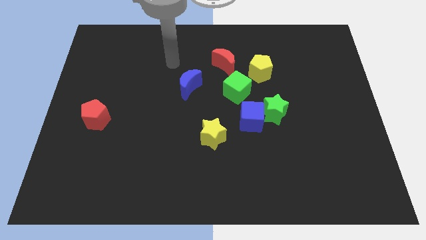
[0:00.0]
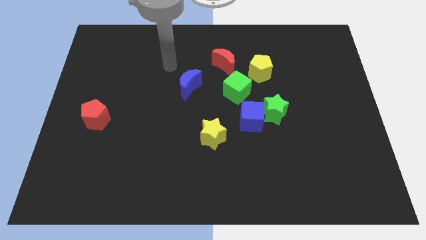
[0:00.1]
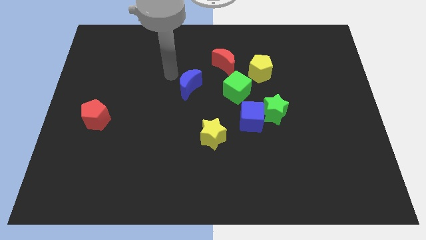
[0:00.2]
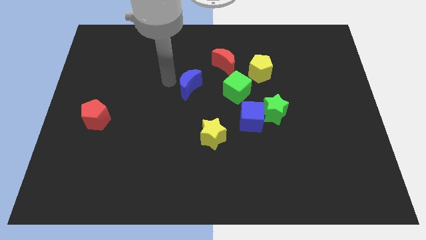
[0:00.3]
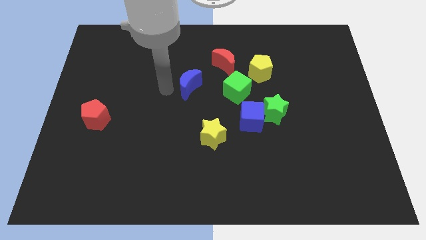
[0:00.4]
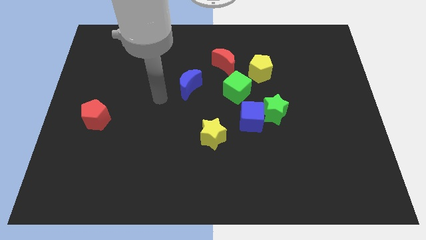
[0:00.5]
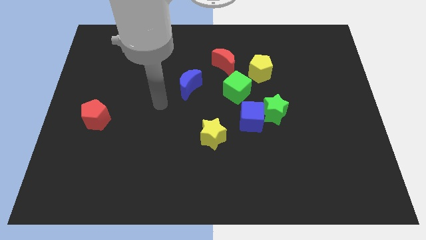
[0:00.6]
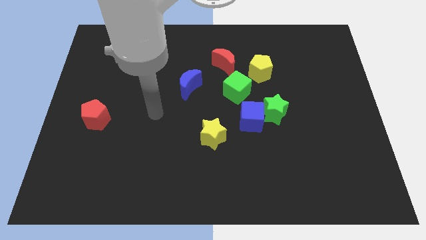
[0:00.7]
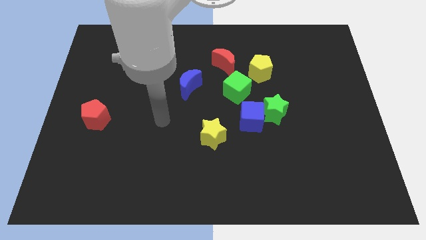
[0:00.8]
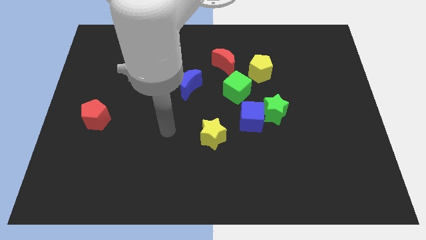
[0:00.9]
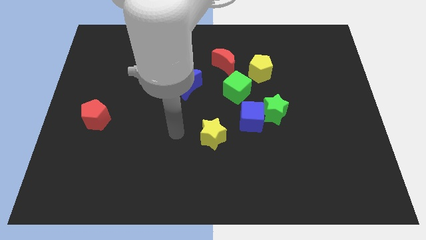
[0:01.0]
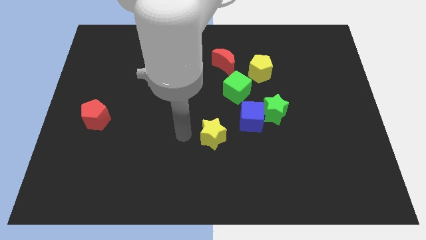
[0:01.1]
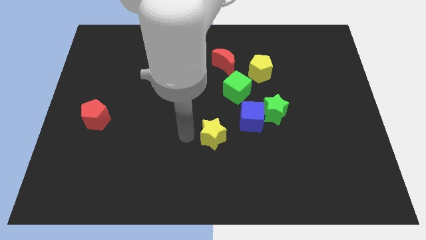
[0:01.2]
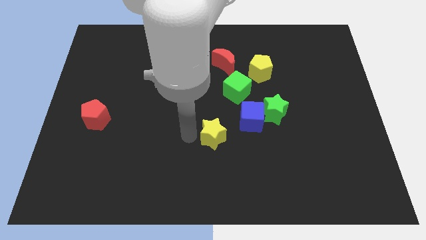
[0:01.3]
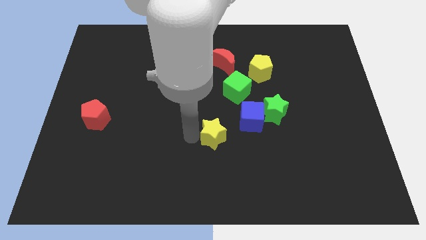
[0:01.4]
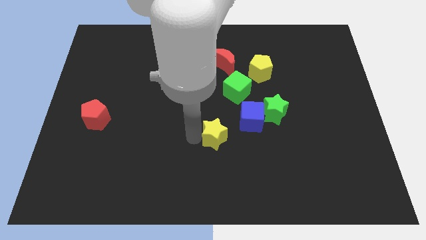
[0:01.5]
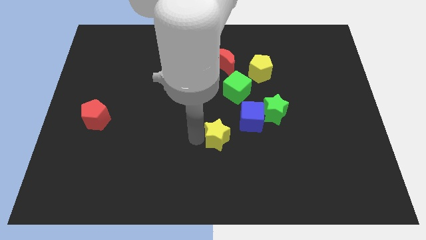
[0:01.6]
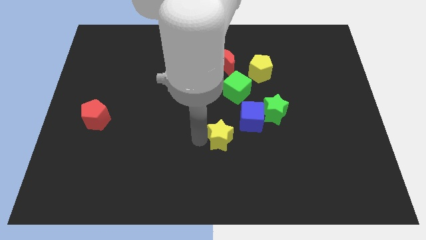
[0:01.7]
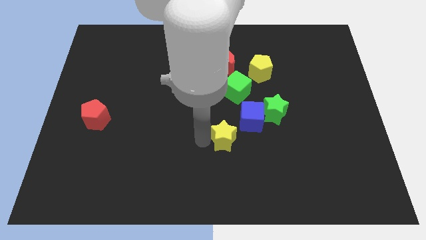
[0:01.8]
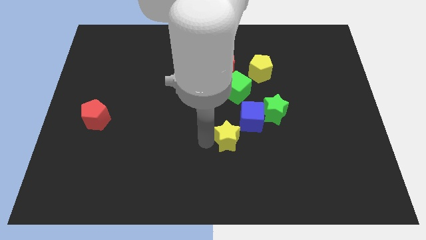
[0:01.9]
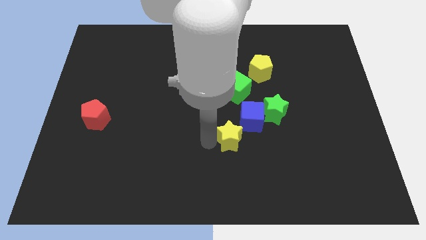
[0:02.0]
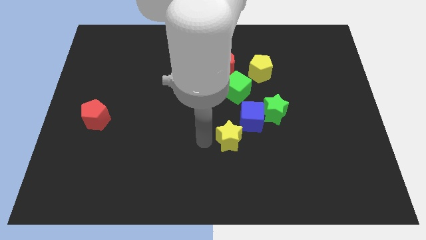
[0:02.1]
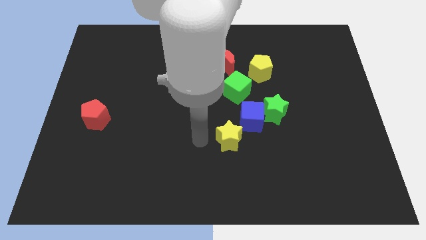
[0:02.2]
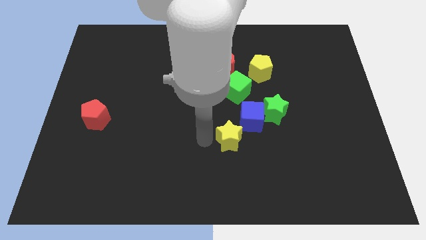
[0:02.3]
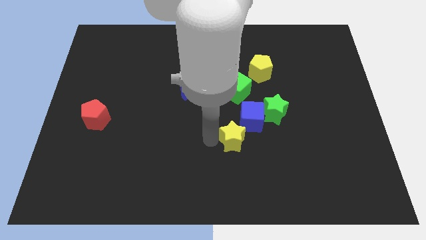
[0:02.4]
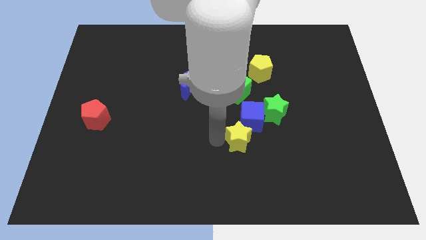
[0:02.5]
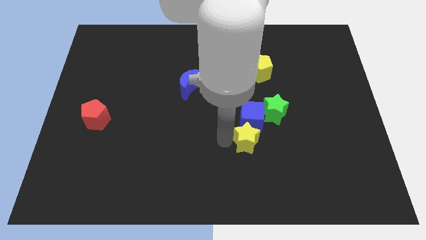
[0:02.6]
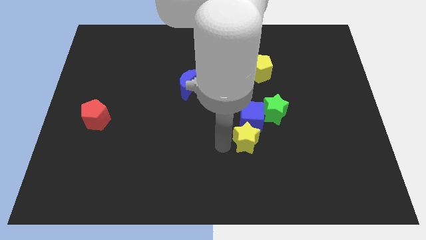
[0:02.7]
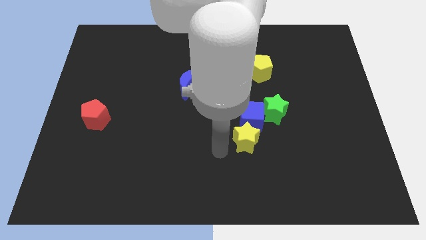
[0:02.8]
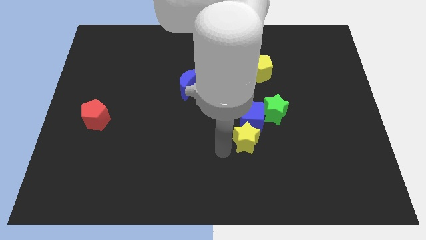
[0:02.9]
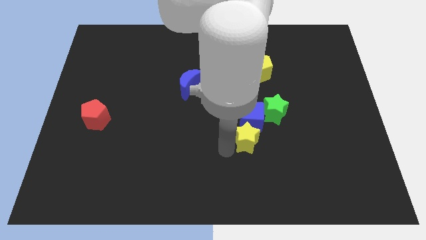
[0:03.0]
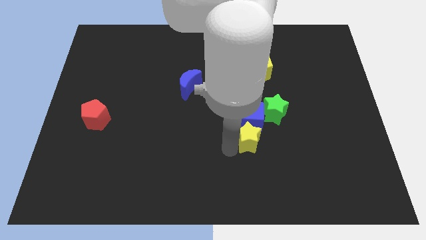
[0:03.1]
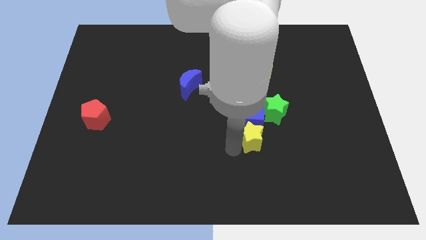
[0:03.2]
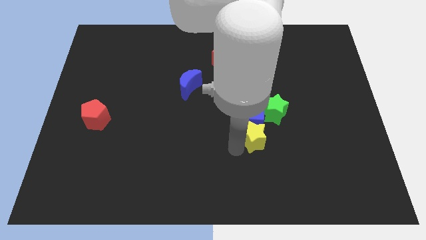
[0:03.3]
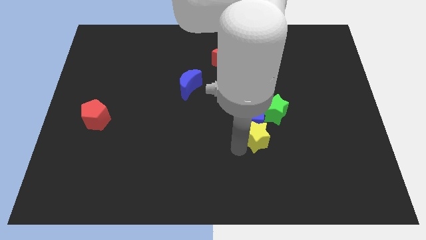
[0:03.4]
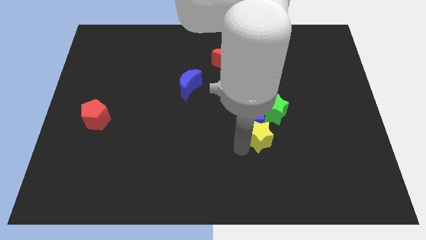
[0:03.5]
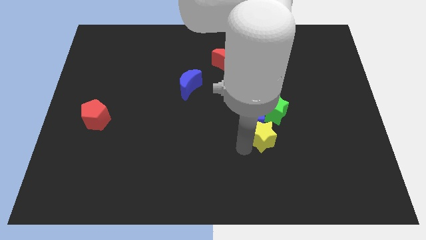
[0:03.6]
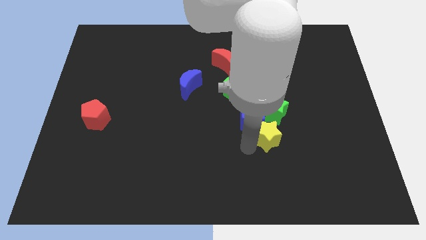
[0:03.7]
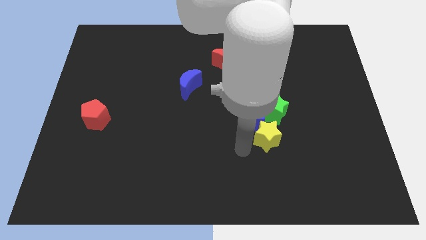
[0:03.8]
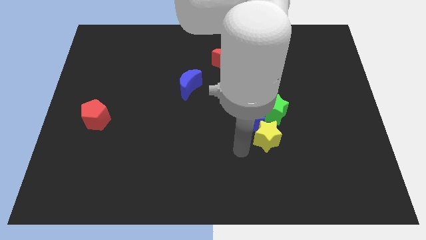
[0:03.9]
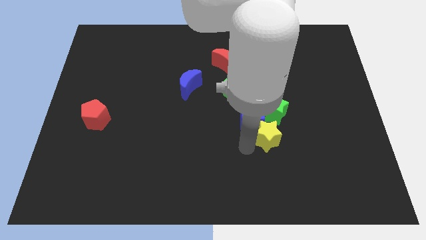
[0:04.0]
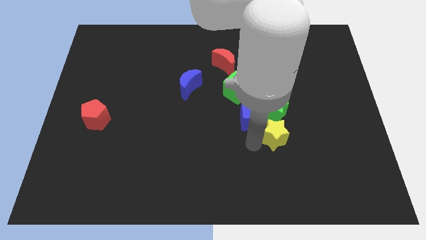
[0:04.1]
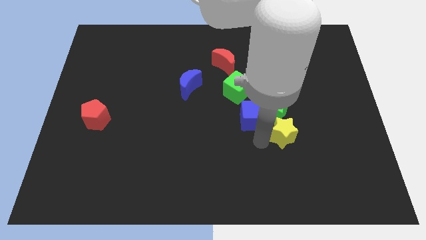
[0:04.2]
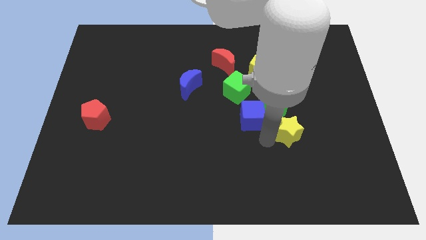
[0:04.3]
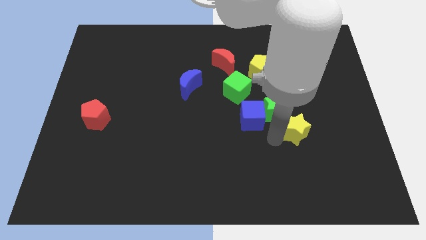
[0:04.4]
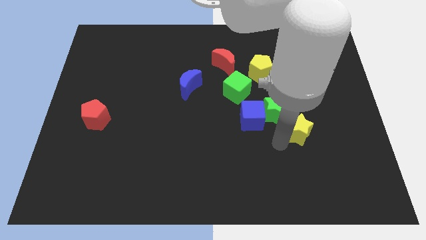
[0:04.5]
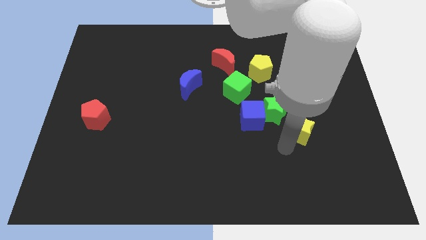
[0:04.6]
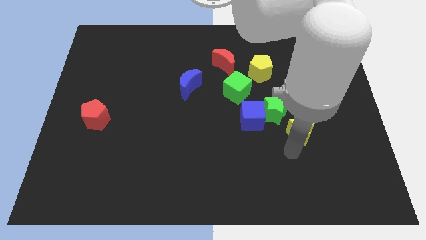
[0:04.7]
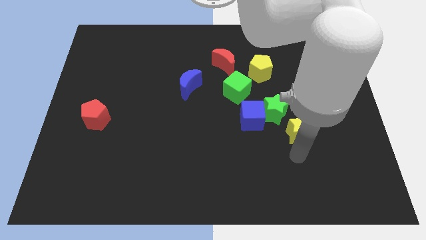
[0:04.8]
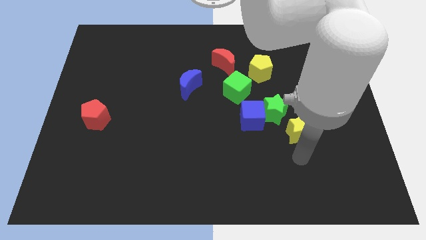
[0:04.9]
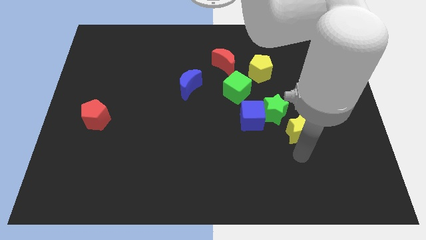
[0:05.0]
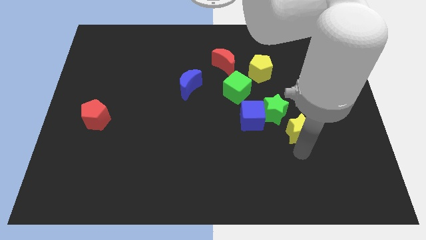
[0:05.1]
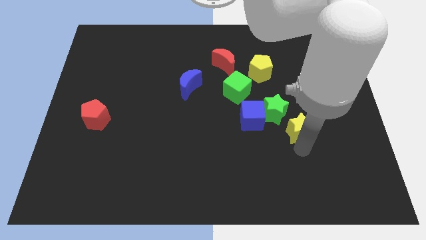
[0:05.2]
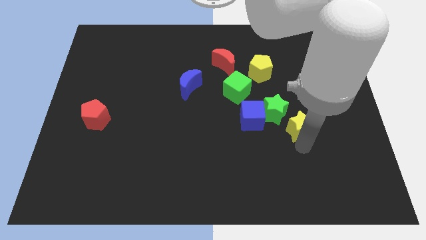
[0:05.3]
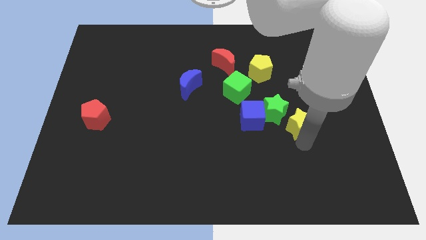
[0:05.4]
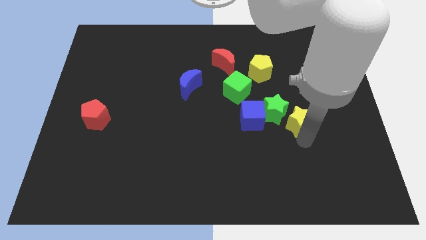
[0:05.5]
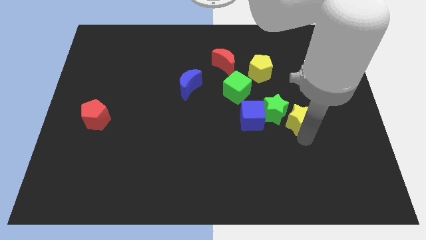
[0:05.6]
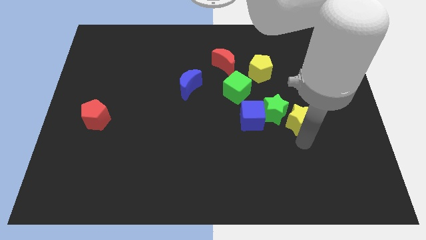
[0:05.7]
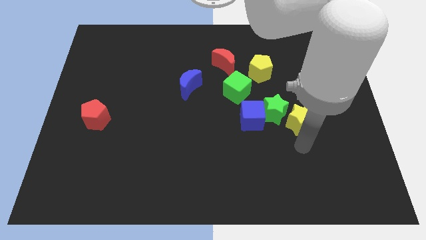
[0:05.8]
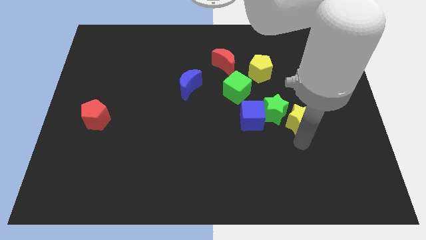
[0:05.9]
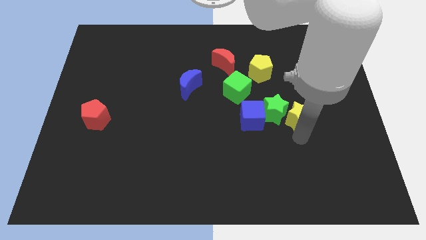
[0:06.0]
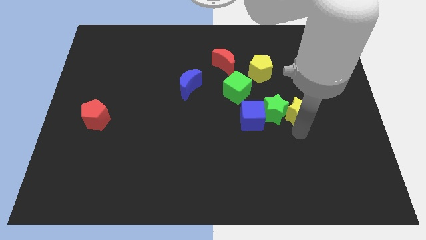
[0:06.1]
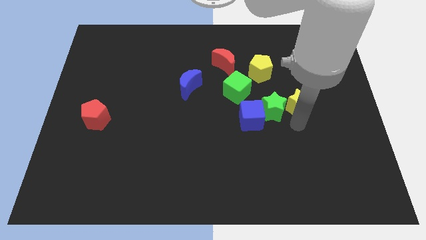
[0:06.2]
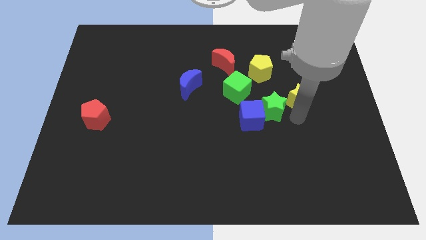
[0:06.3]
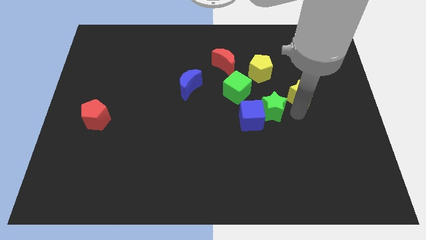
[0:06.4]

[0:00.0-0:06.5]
push the yellow star up and to the right diagonally

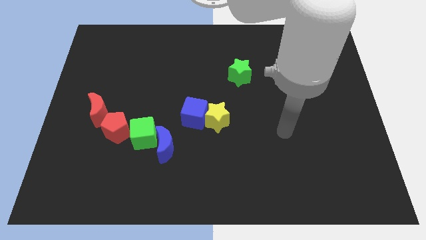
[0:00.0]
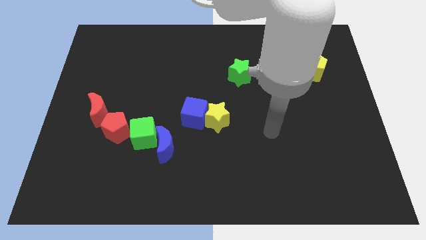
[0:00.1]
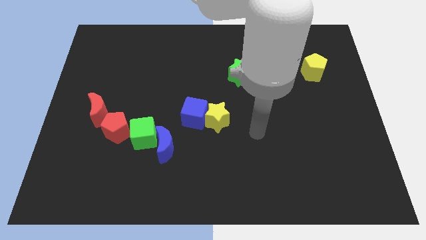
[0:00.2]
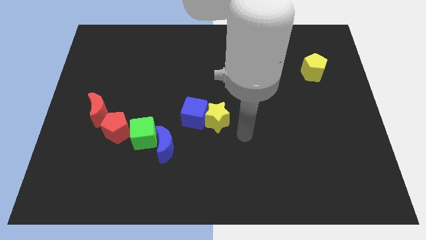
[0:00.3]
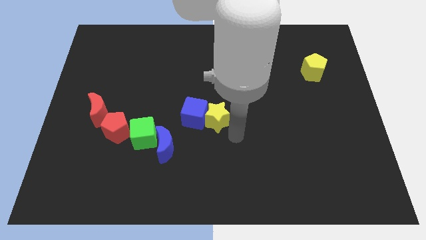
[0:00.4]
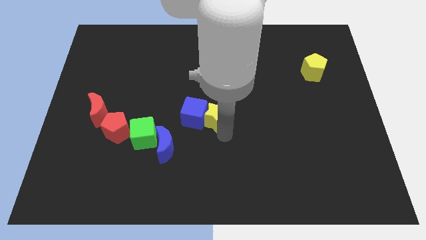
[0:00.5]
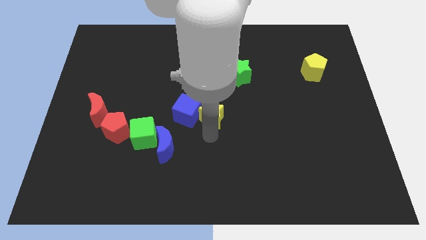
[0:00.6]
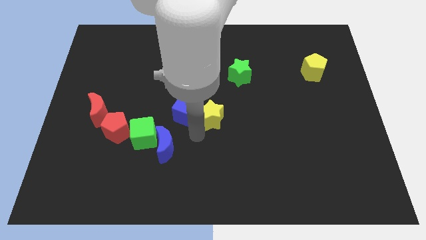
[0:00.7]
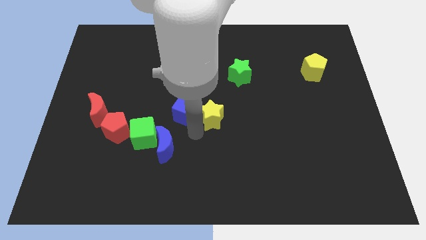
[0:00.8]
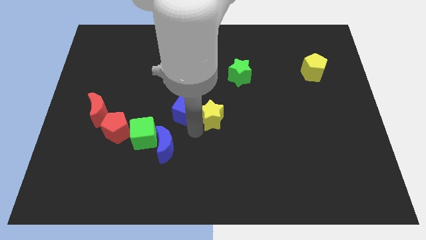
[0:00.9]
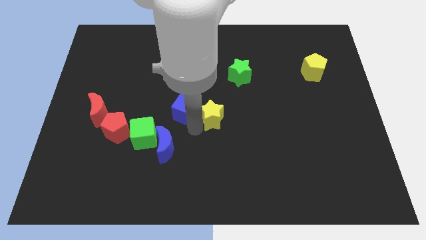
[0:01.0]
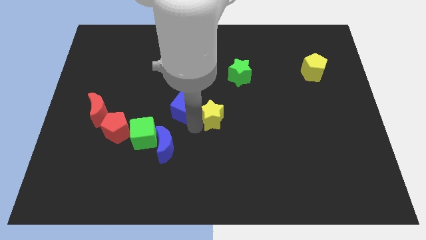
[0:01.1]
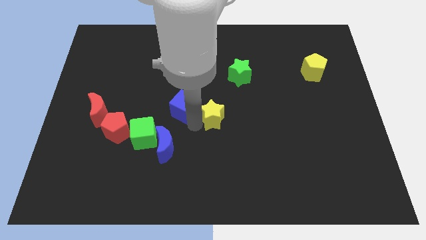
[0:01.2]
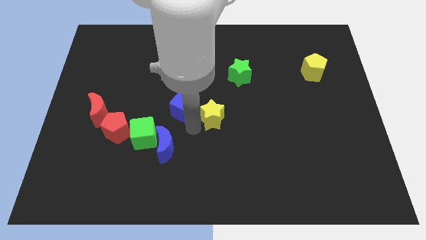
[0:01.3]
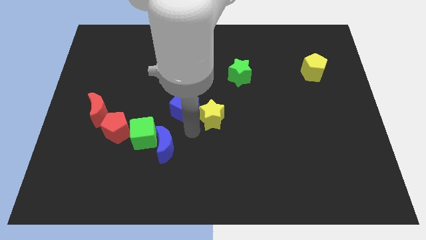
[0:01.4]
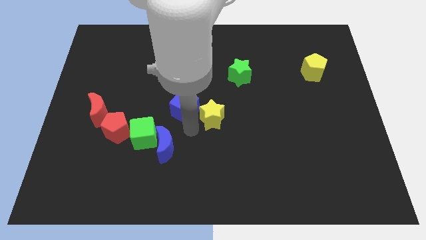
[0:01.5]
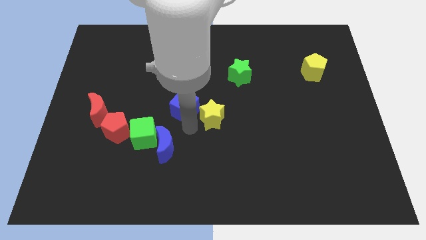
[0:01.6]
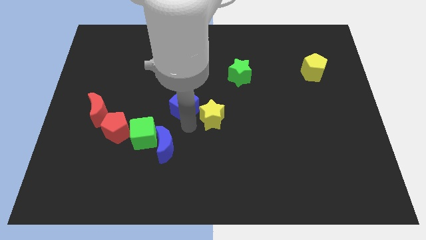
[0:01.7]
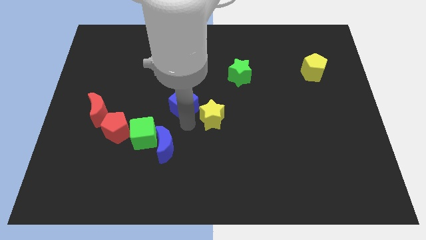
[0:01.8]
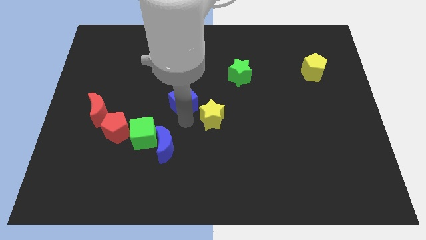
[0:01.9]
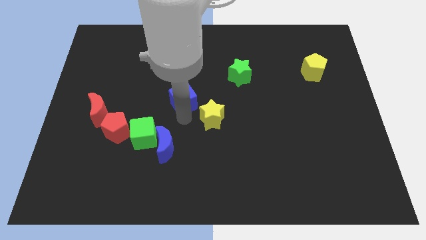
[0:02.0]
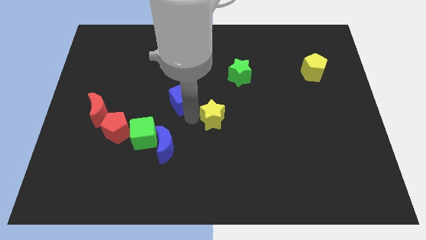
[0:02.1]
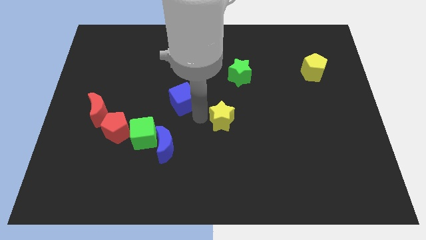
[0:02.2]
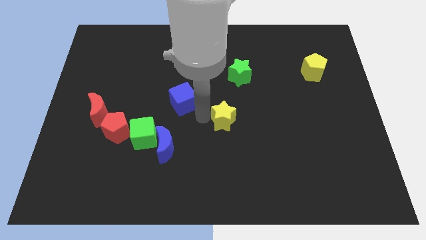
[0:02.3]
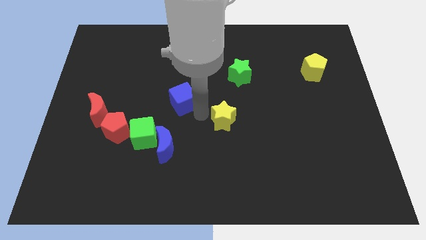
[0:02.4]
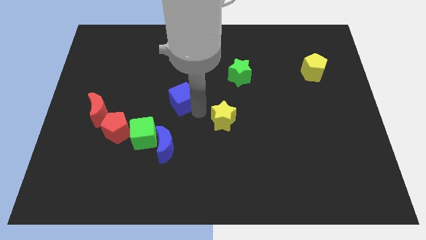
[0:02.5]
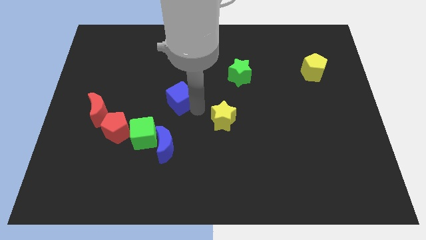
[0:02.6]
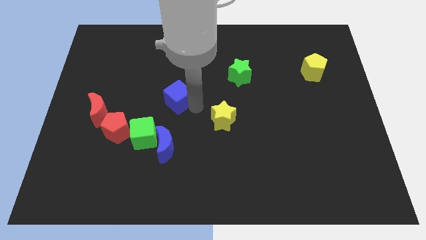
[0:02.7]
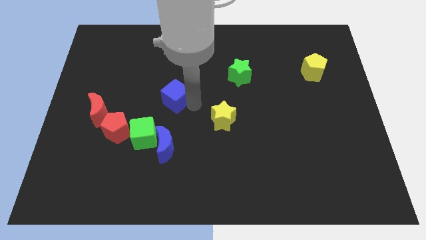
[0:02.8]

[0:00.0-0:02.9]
slightly slide the blue cube upwards and to the left
